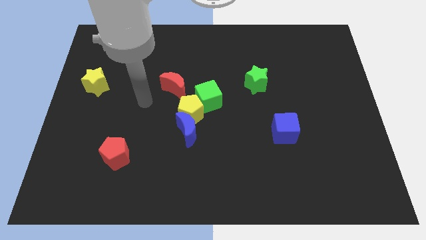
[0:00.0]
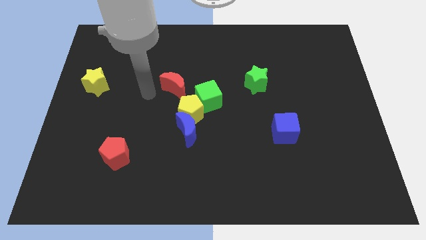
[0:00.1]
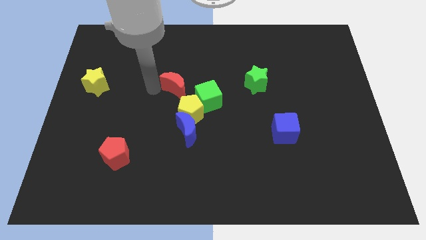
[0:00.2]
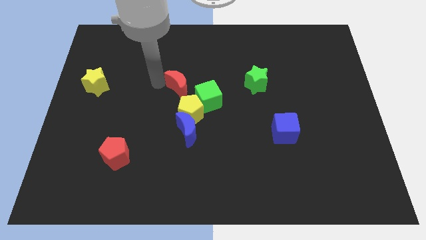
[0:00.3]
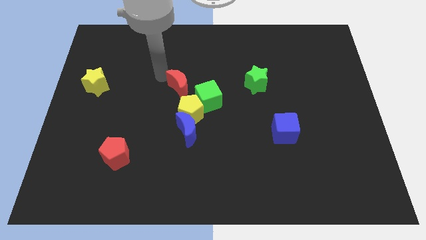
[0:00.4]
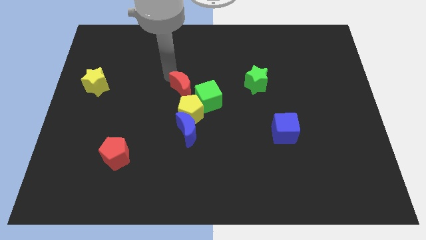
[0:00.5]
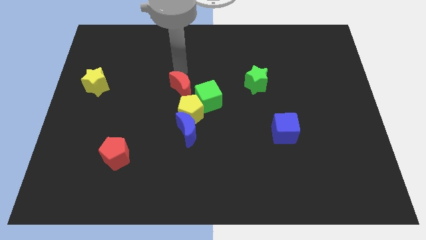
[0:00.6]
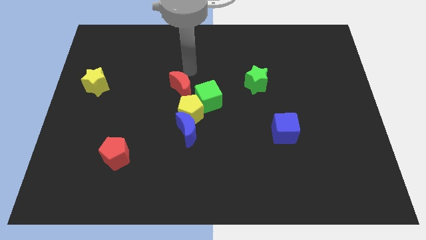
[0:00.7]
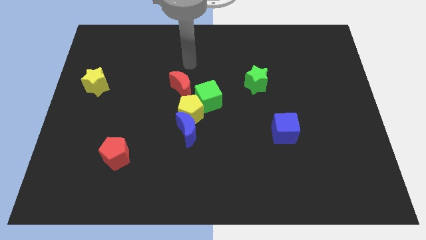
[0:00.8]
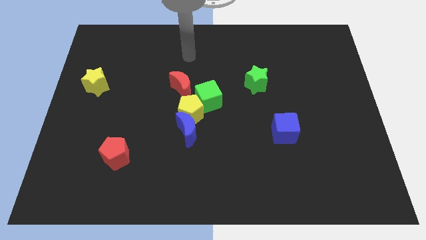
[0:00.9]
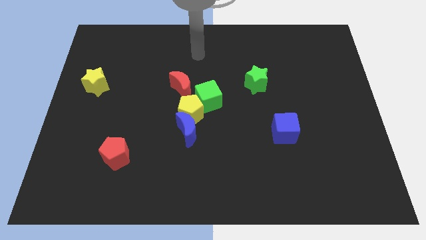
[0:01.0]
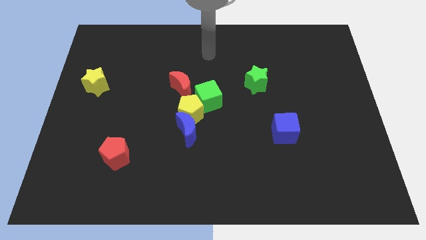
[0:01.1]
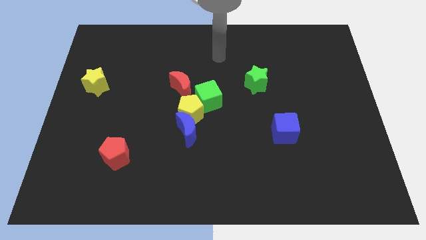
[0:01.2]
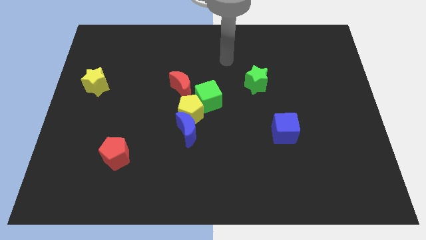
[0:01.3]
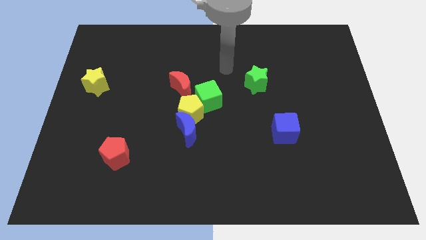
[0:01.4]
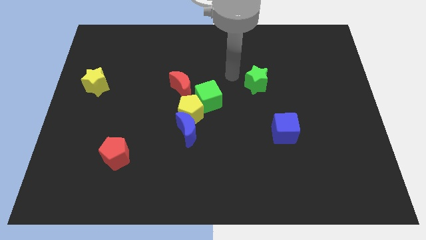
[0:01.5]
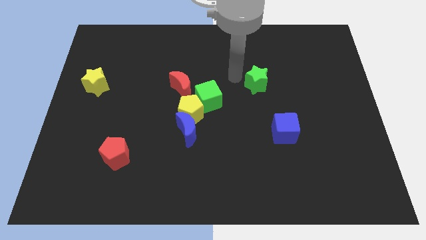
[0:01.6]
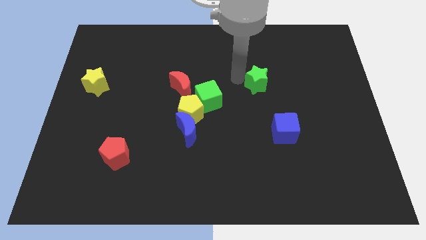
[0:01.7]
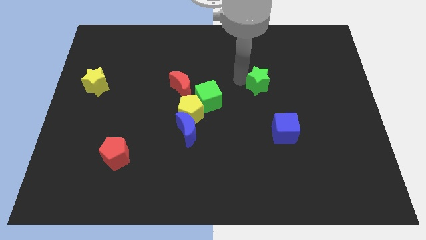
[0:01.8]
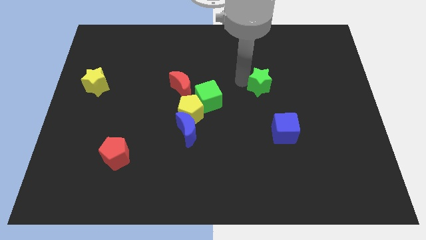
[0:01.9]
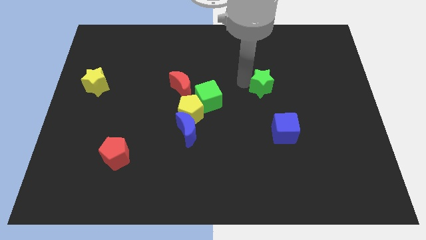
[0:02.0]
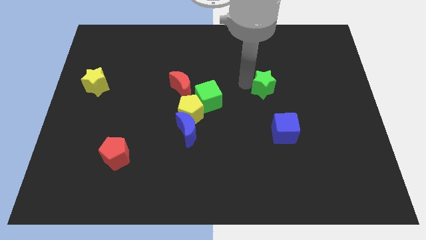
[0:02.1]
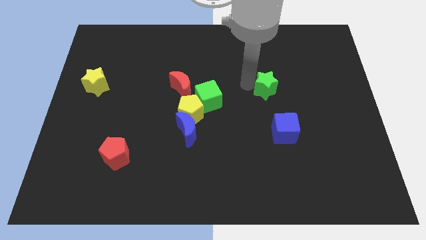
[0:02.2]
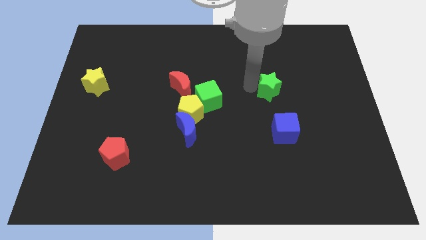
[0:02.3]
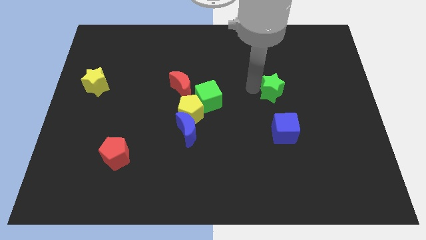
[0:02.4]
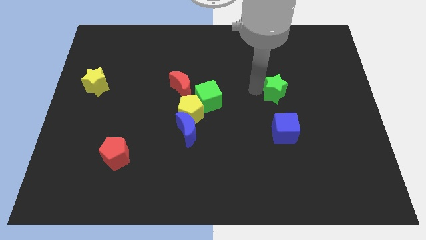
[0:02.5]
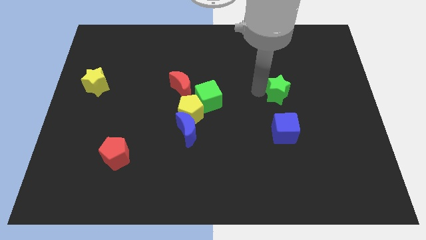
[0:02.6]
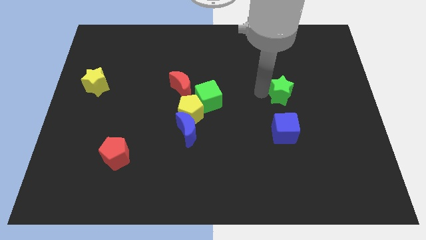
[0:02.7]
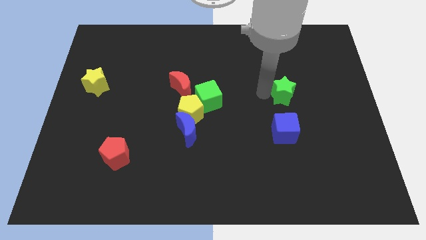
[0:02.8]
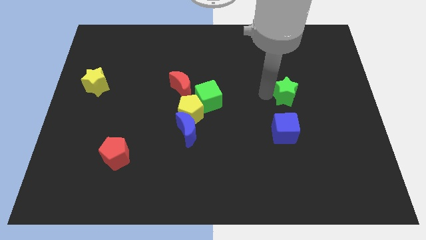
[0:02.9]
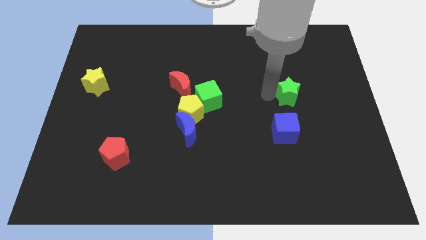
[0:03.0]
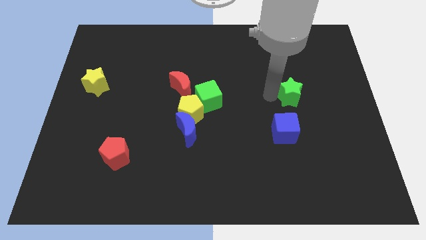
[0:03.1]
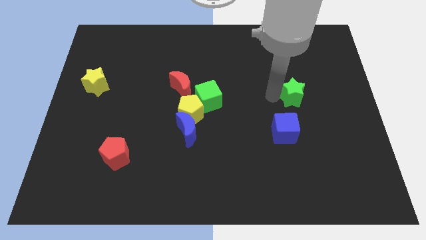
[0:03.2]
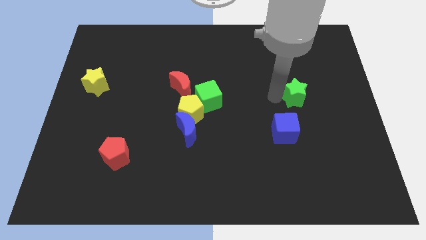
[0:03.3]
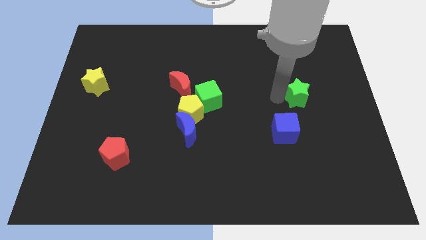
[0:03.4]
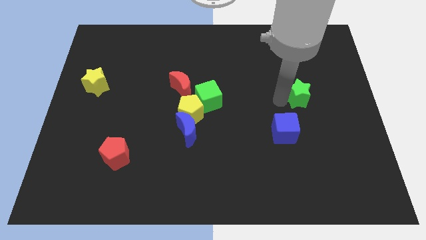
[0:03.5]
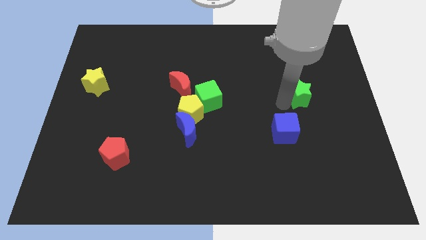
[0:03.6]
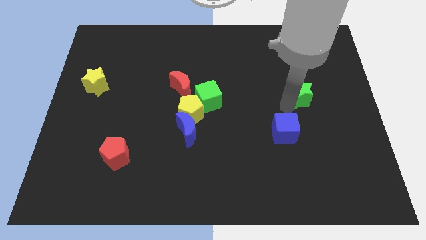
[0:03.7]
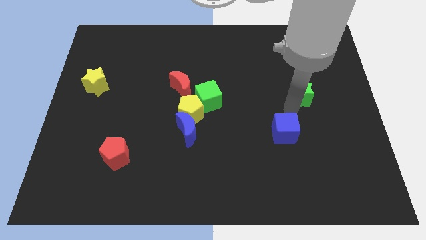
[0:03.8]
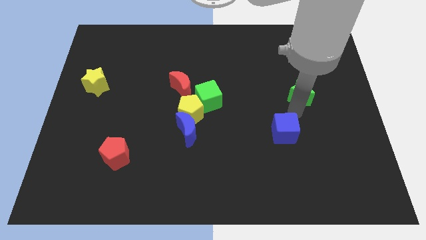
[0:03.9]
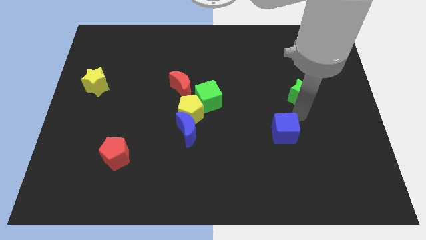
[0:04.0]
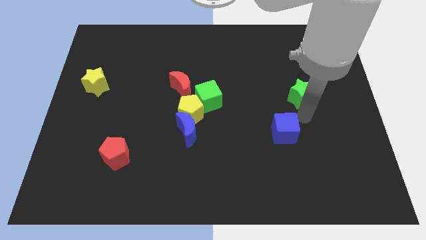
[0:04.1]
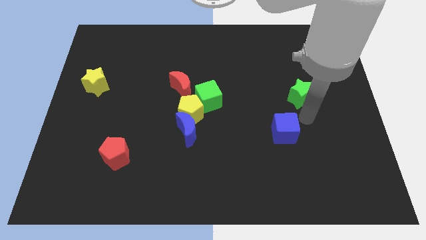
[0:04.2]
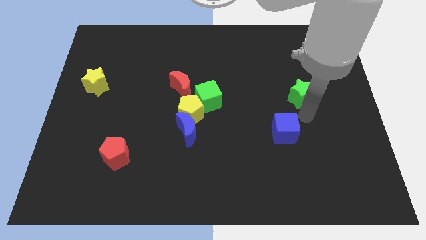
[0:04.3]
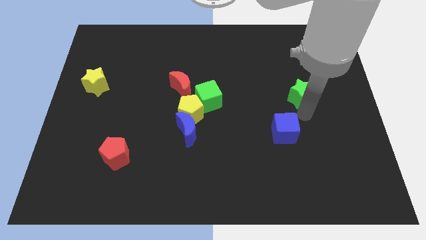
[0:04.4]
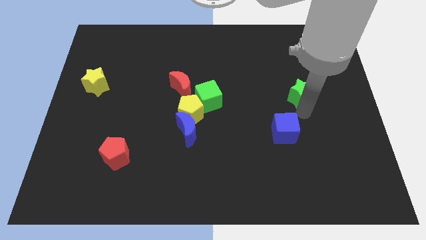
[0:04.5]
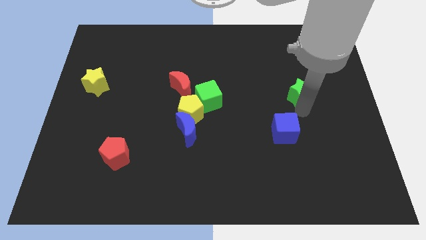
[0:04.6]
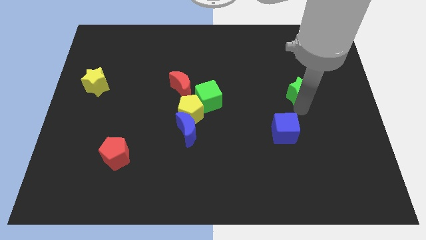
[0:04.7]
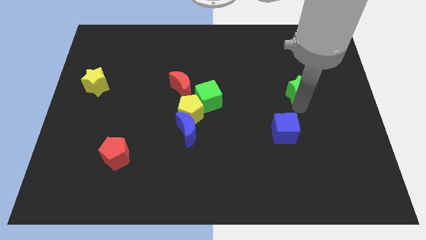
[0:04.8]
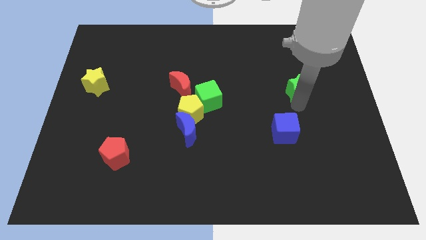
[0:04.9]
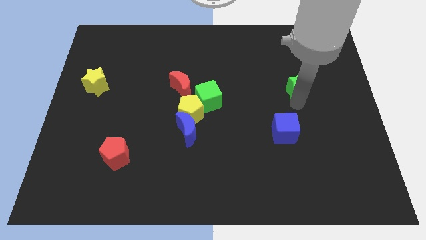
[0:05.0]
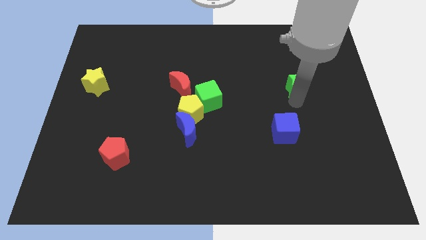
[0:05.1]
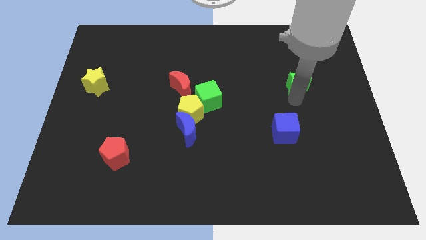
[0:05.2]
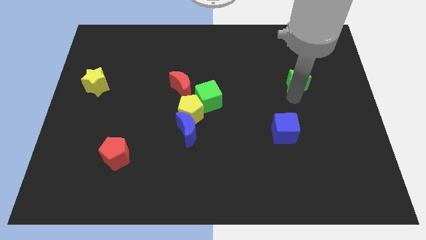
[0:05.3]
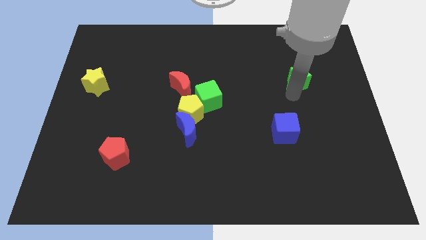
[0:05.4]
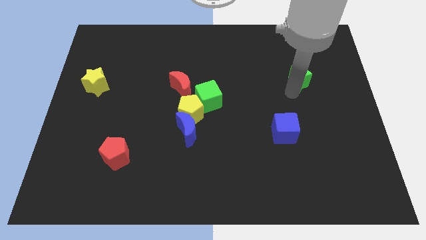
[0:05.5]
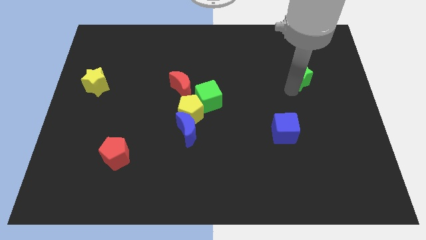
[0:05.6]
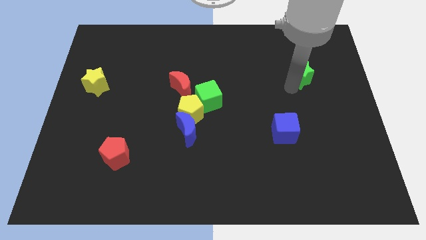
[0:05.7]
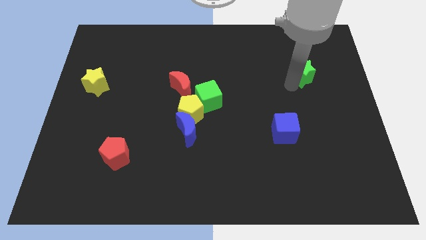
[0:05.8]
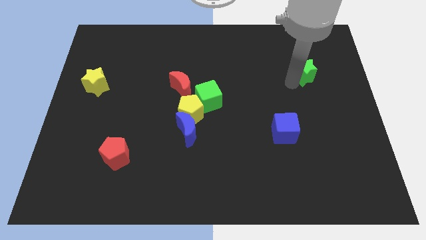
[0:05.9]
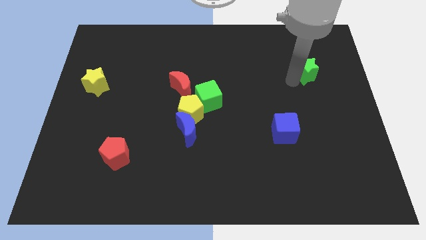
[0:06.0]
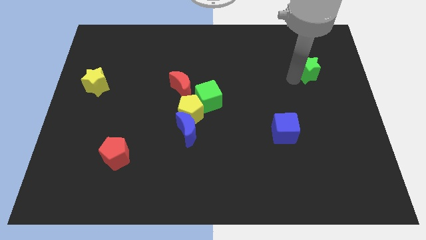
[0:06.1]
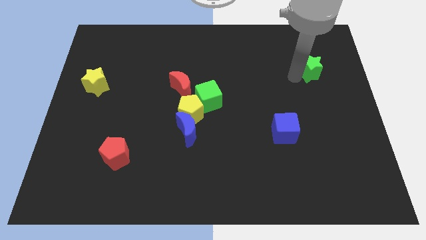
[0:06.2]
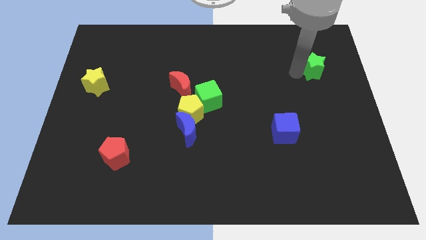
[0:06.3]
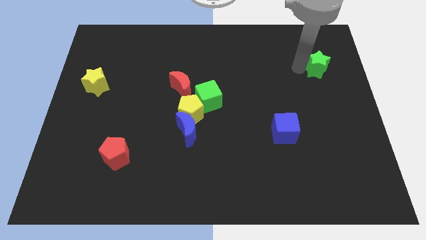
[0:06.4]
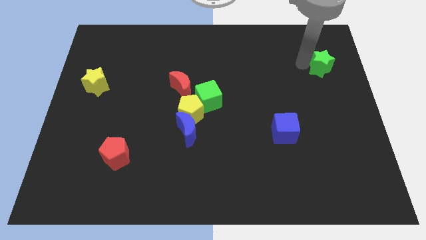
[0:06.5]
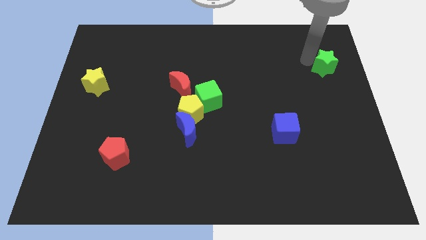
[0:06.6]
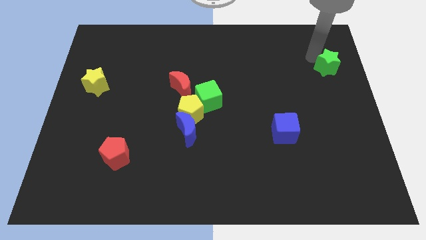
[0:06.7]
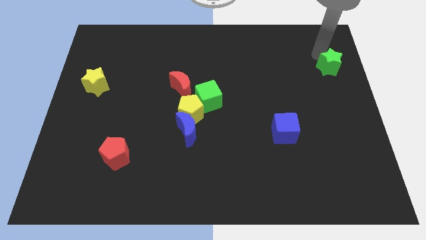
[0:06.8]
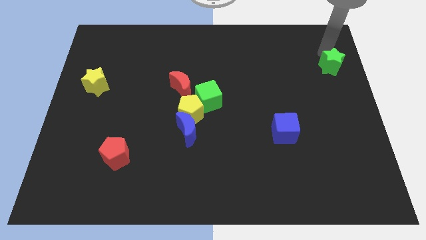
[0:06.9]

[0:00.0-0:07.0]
push the green star to the right side
